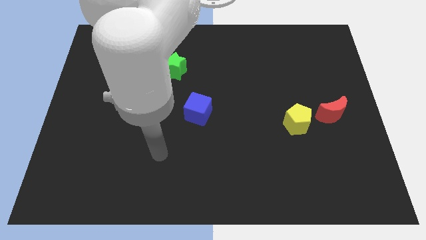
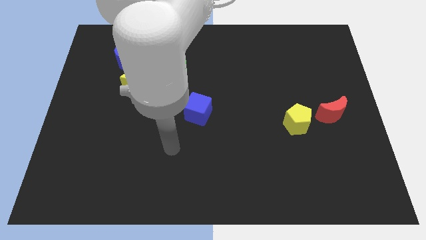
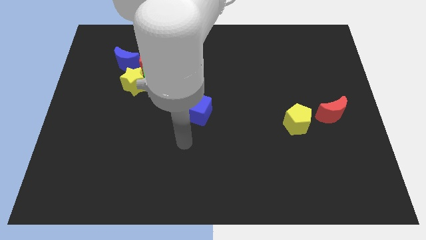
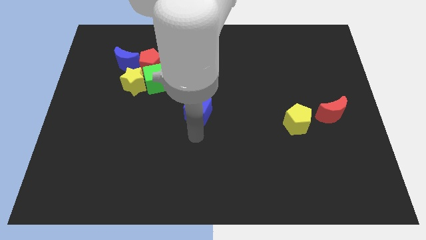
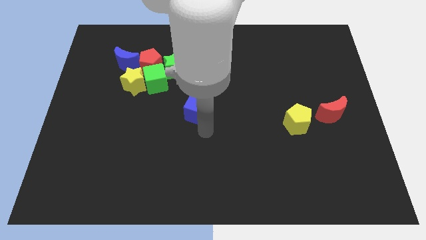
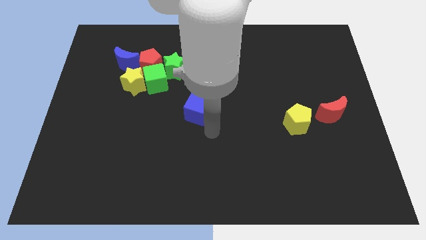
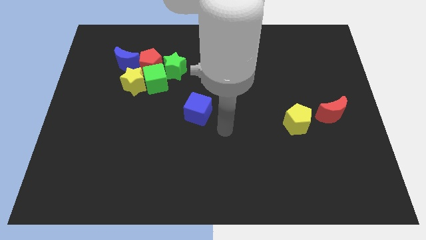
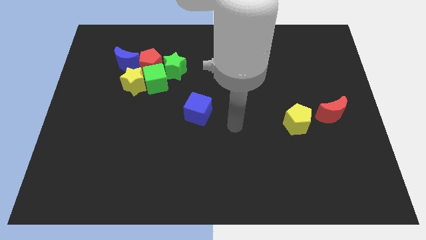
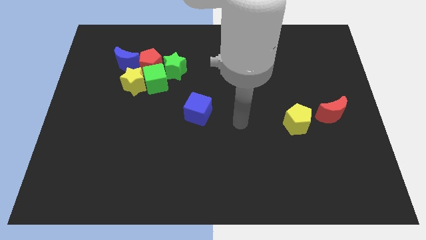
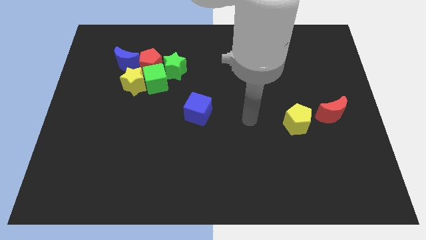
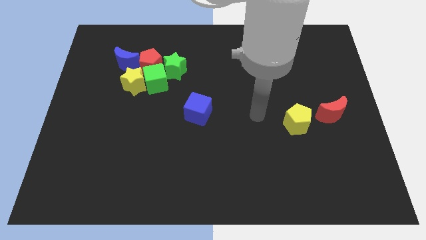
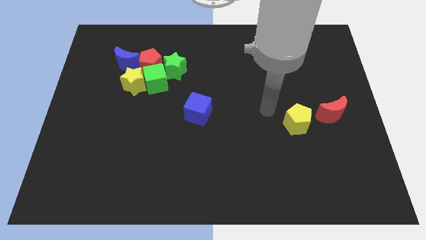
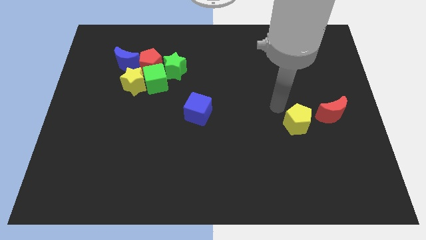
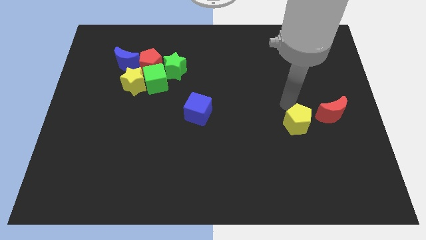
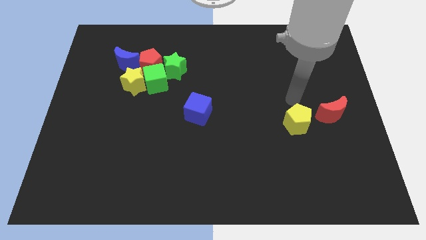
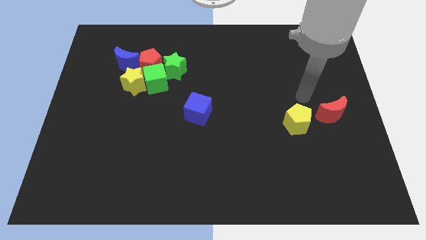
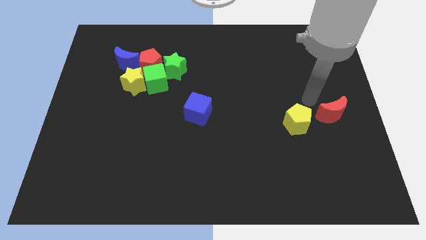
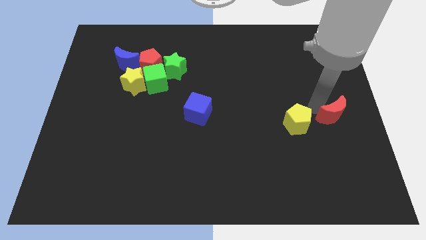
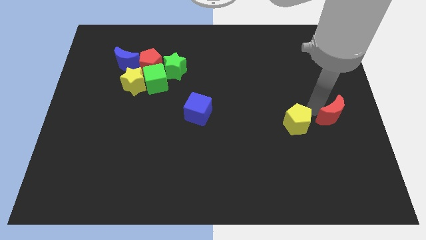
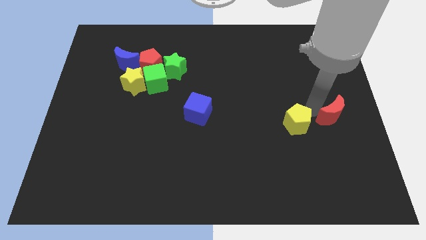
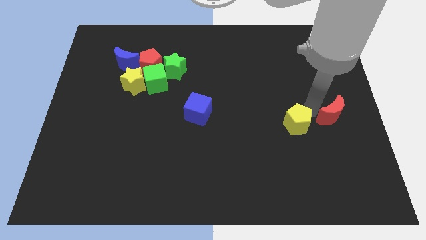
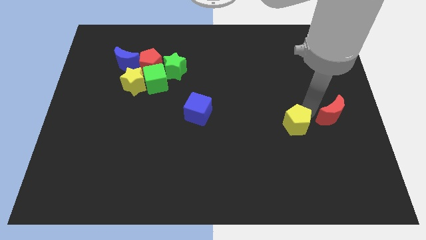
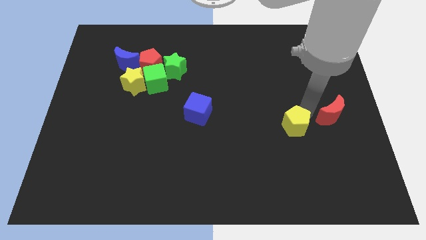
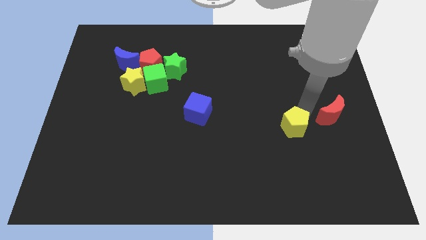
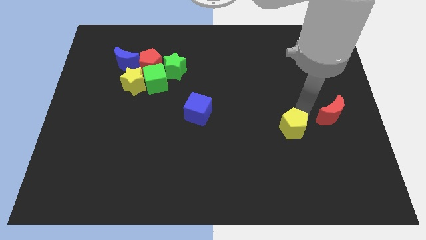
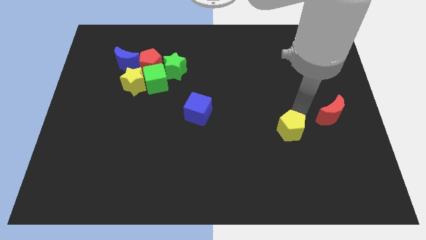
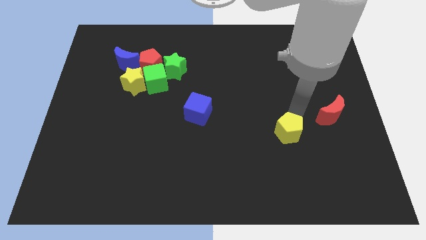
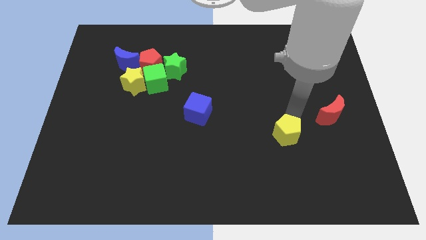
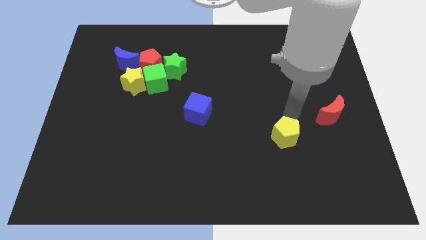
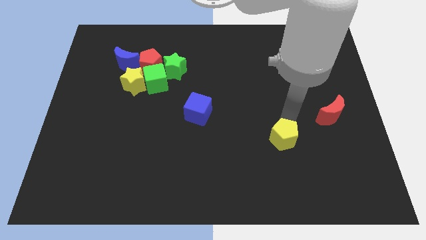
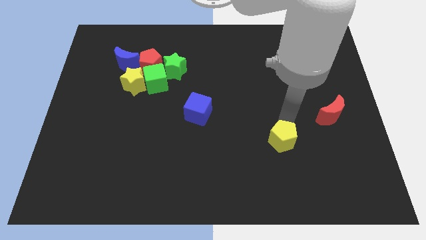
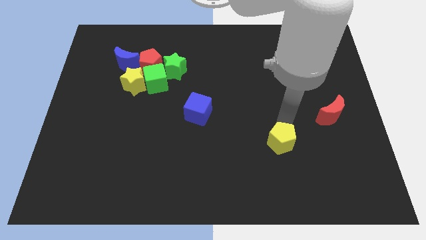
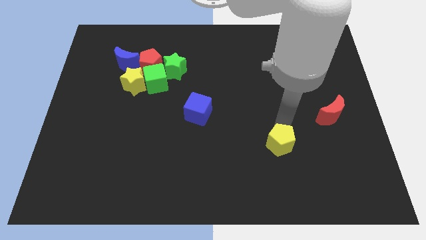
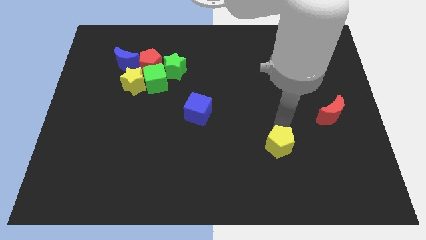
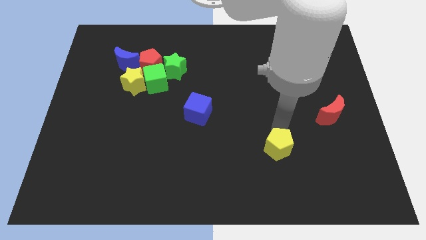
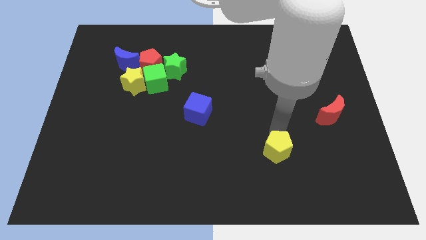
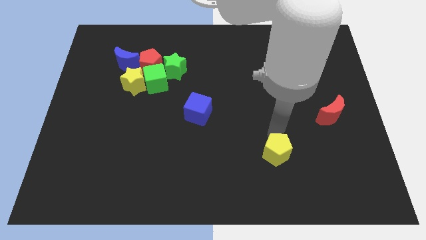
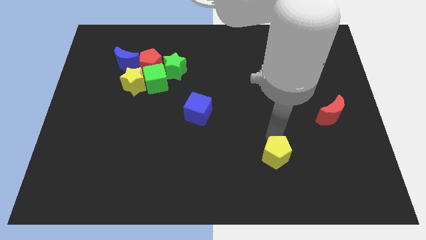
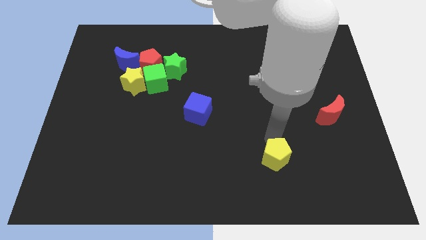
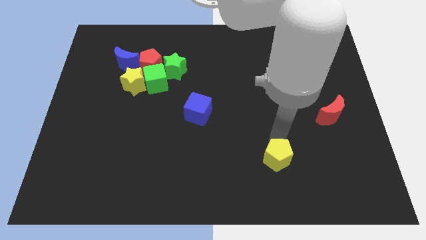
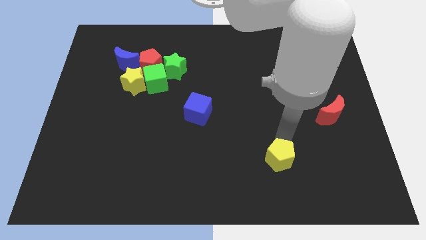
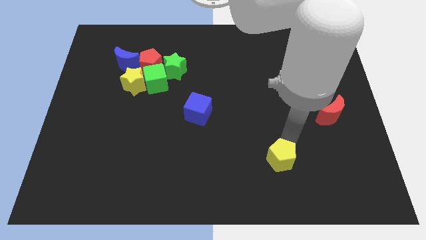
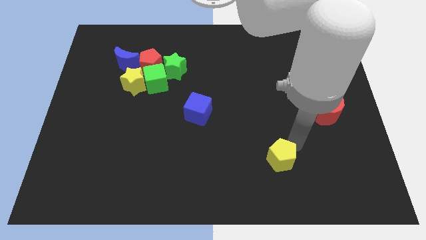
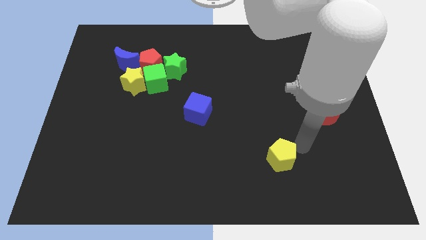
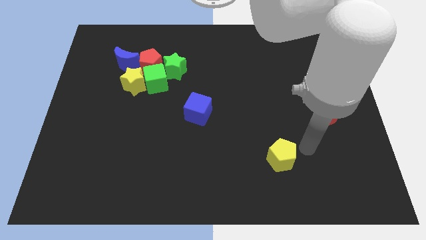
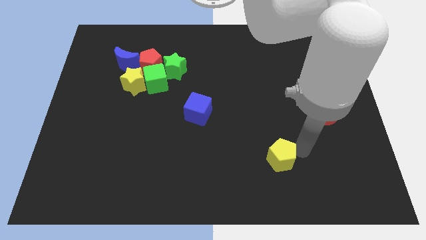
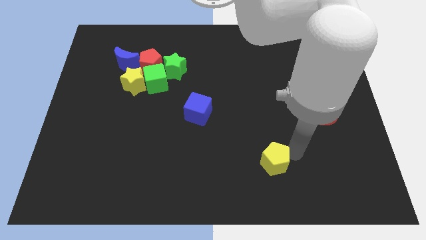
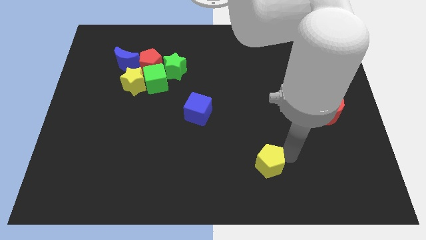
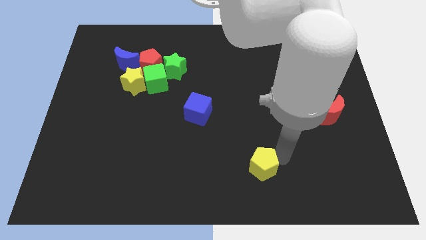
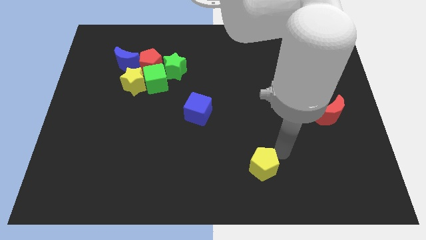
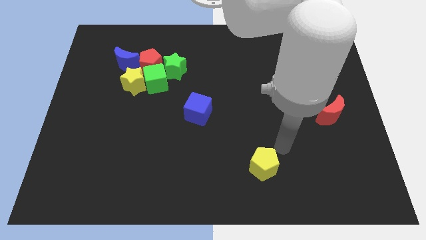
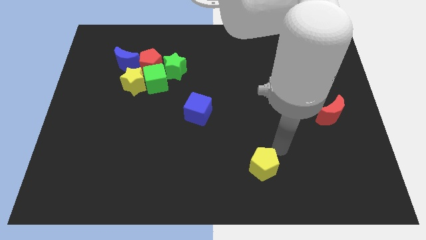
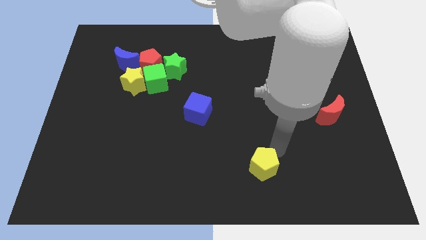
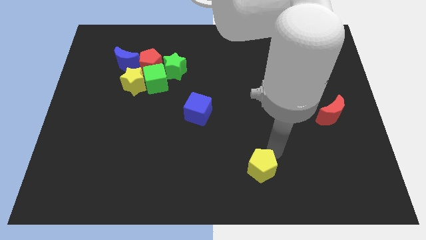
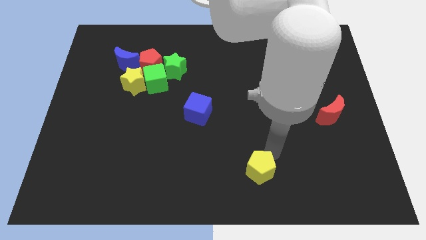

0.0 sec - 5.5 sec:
move the yellow pentagon to the bottom

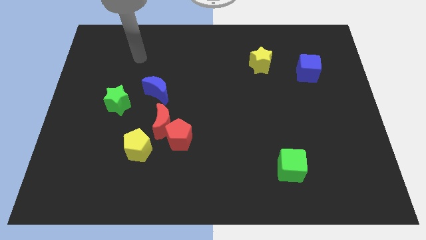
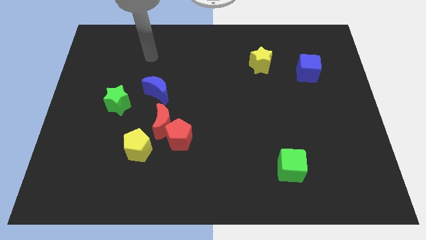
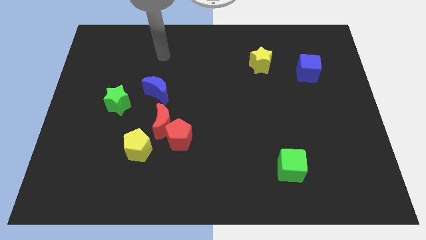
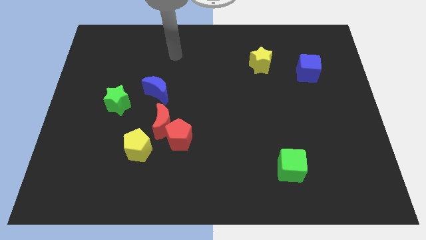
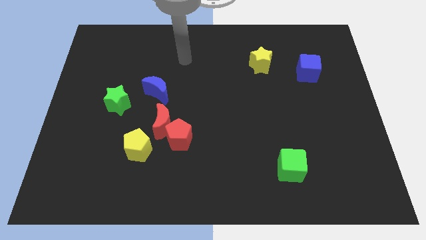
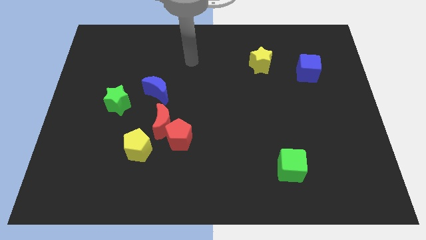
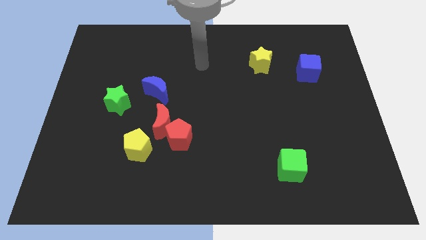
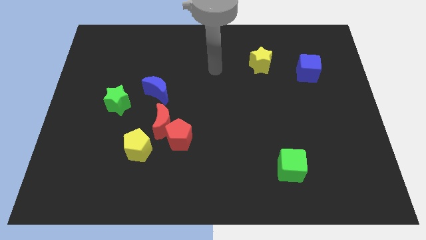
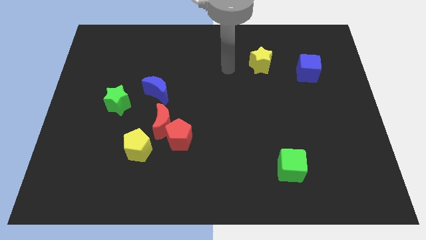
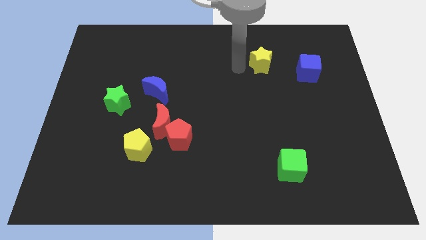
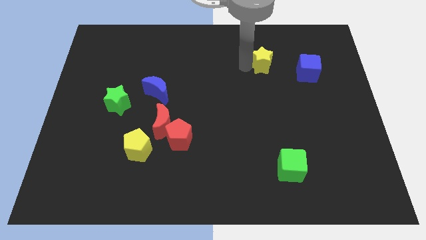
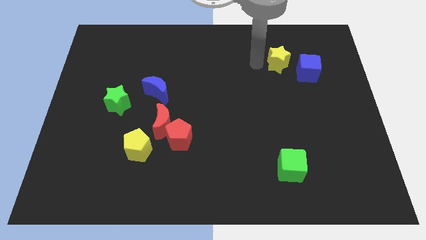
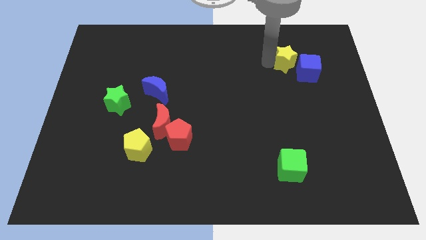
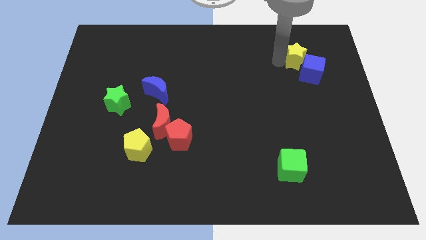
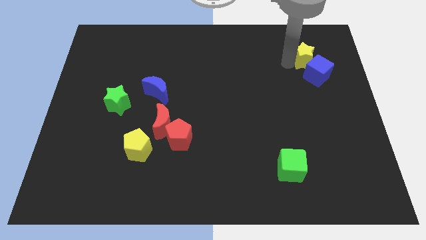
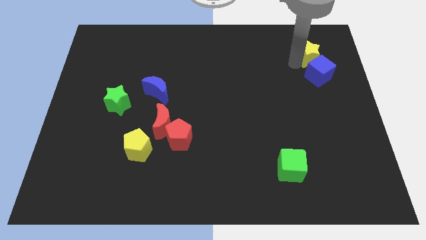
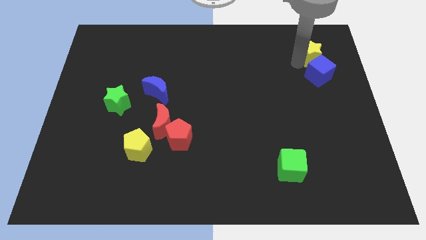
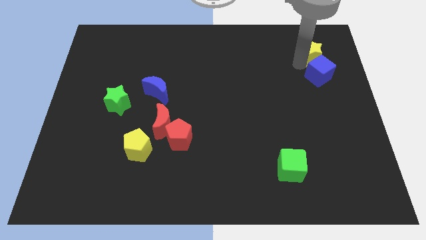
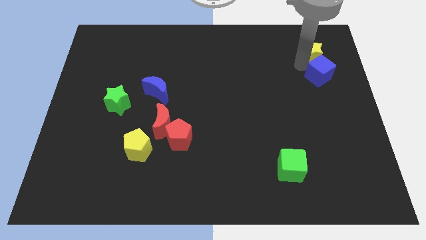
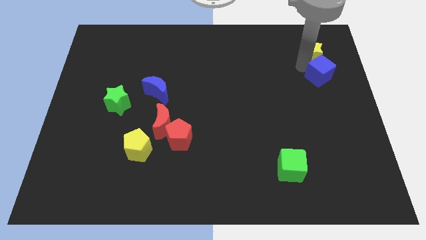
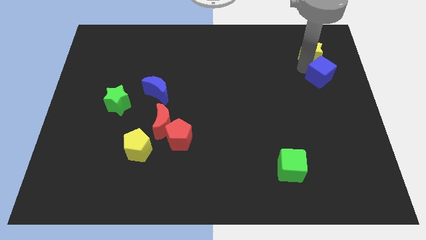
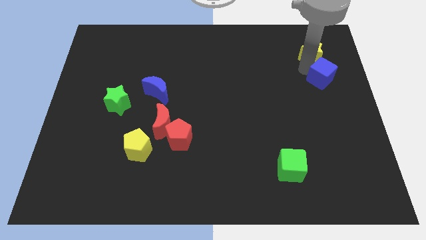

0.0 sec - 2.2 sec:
move the blue cube to the center right
